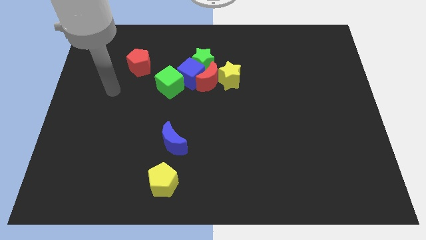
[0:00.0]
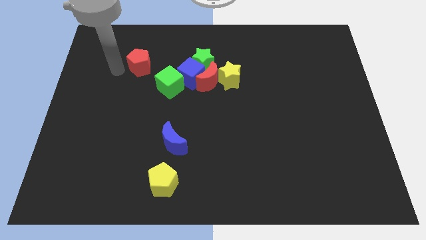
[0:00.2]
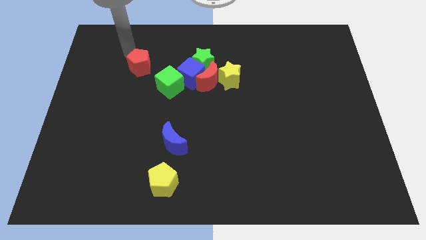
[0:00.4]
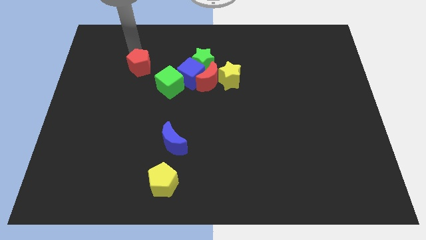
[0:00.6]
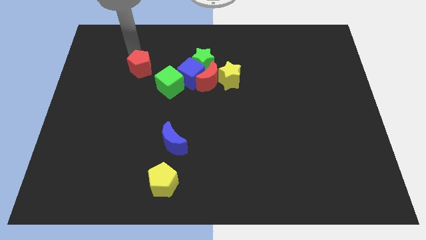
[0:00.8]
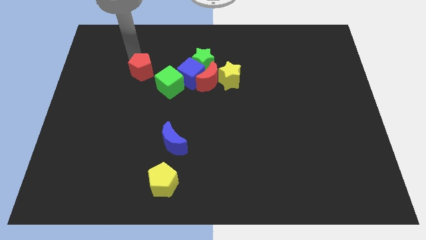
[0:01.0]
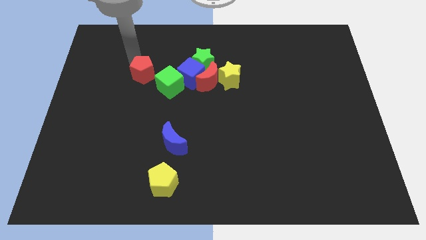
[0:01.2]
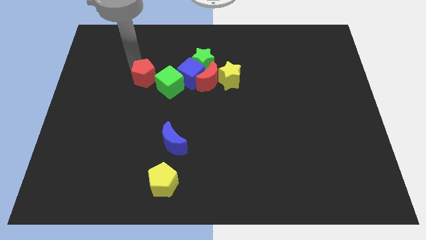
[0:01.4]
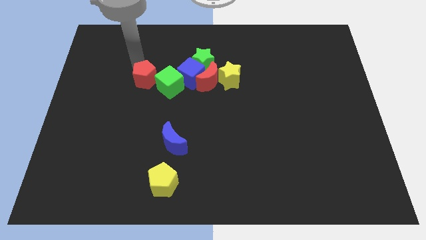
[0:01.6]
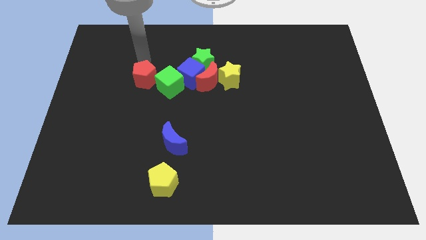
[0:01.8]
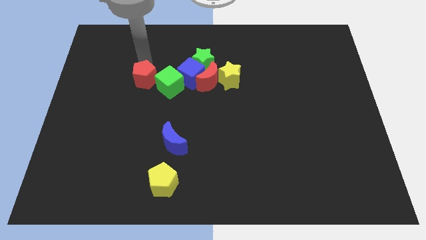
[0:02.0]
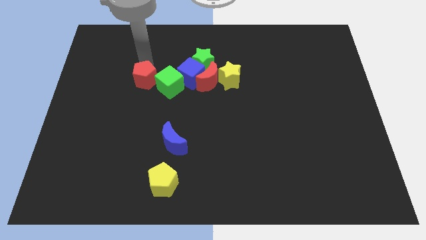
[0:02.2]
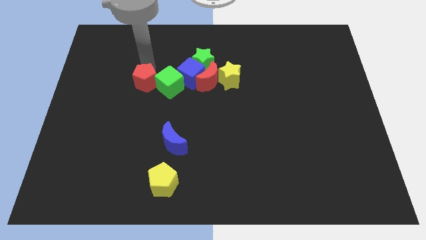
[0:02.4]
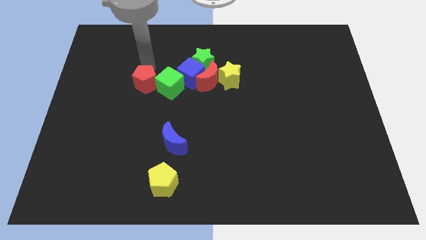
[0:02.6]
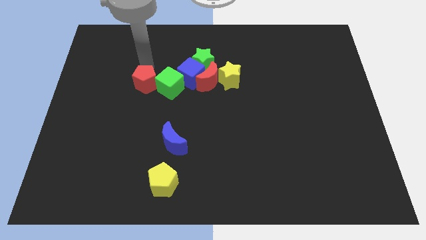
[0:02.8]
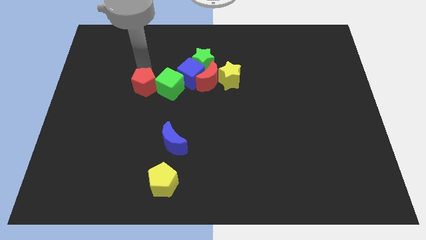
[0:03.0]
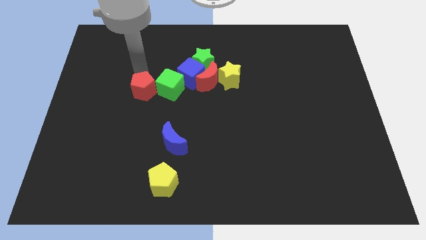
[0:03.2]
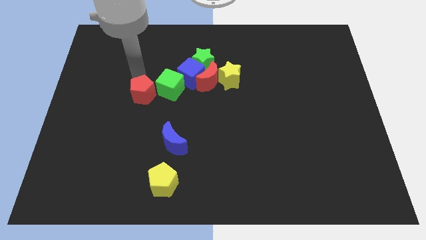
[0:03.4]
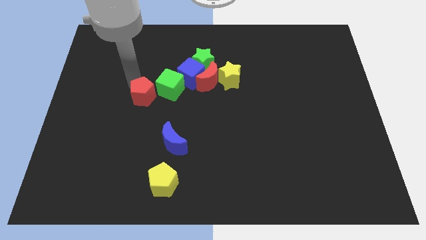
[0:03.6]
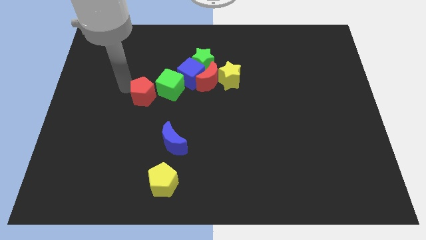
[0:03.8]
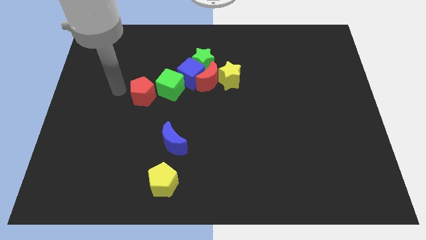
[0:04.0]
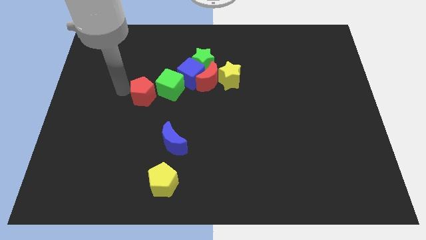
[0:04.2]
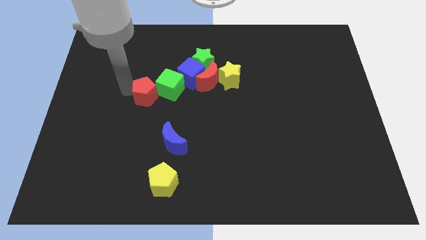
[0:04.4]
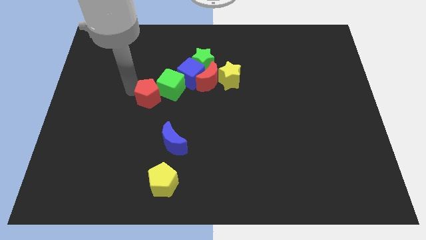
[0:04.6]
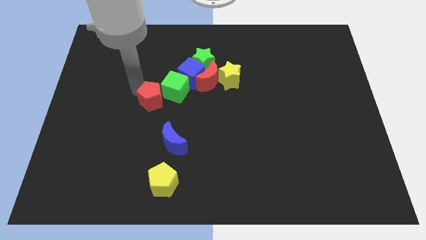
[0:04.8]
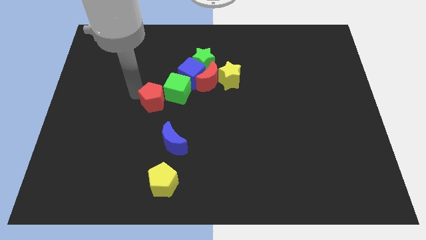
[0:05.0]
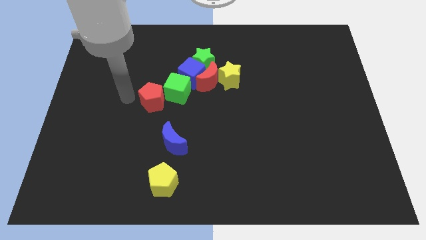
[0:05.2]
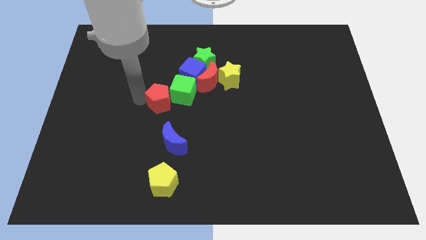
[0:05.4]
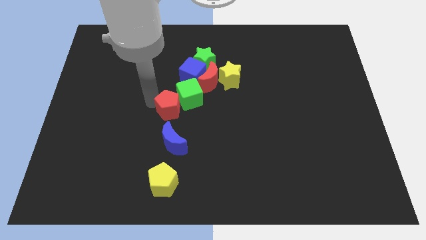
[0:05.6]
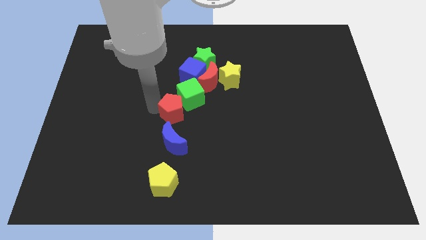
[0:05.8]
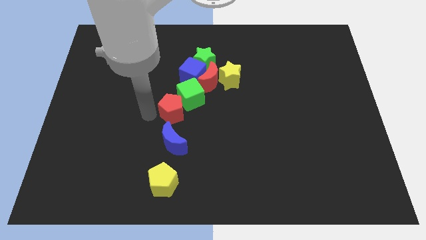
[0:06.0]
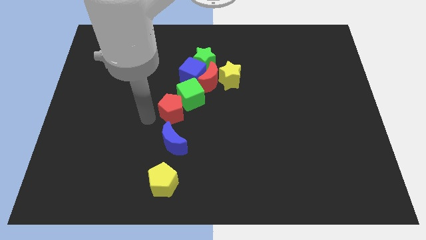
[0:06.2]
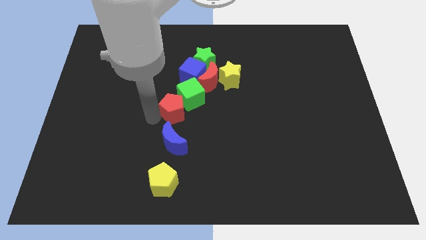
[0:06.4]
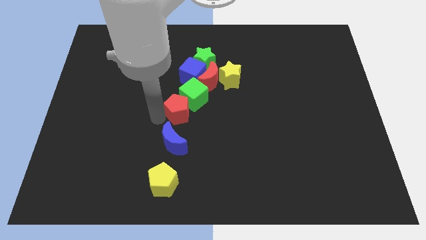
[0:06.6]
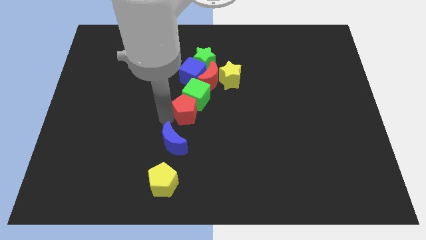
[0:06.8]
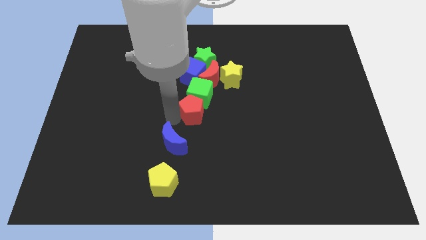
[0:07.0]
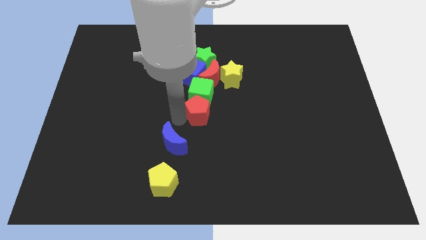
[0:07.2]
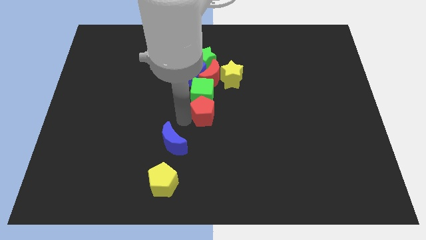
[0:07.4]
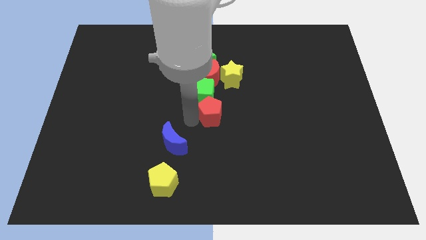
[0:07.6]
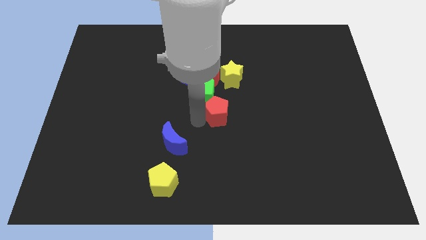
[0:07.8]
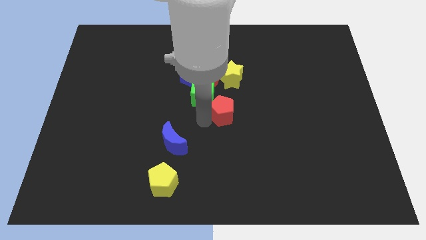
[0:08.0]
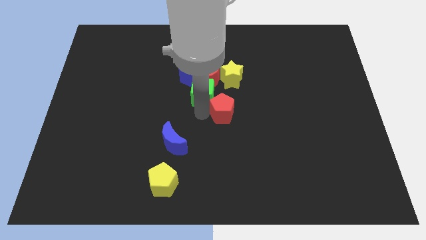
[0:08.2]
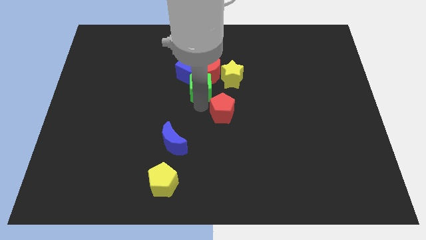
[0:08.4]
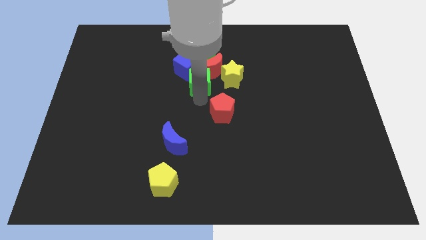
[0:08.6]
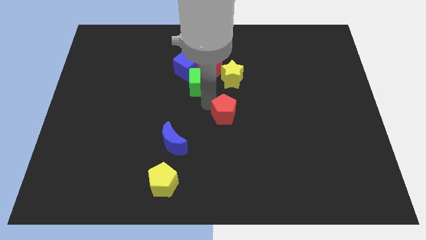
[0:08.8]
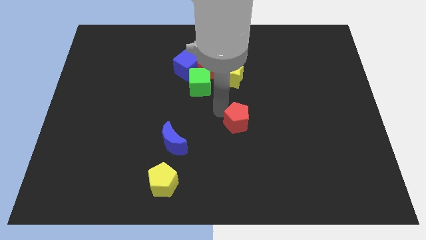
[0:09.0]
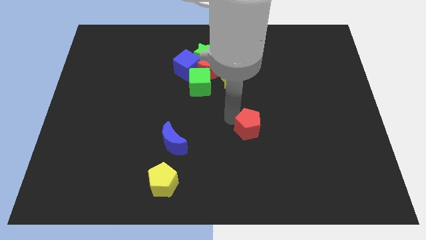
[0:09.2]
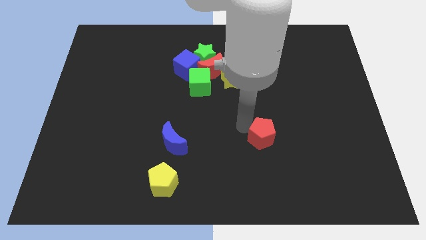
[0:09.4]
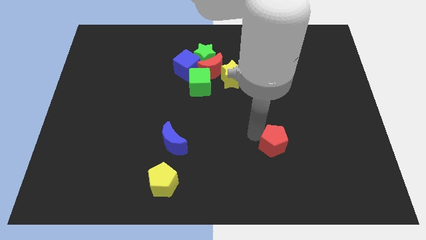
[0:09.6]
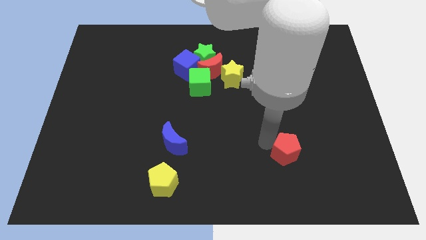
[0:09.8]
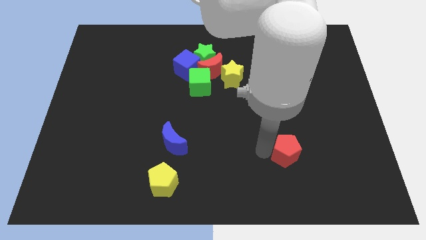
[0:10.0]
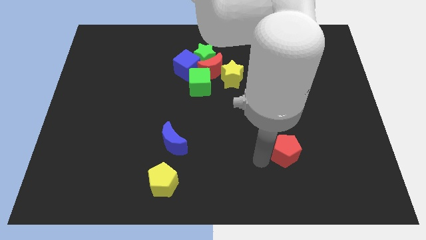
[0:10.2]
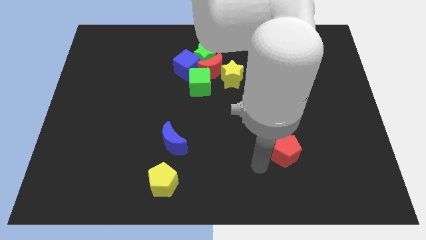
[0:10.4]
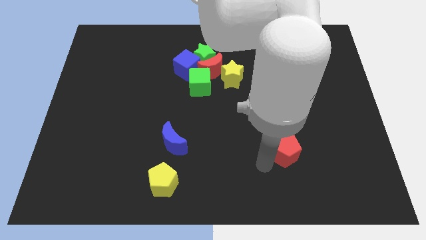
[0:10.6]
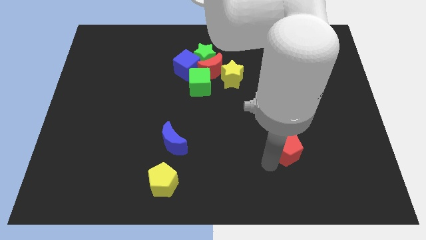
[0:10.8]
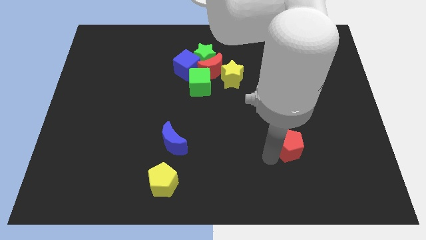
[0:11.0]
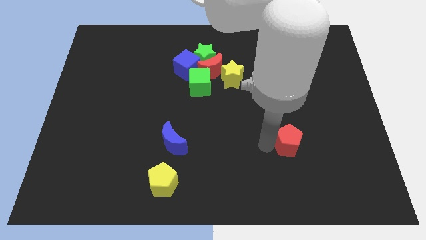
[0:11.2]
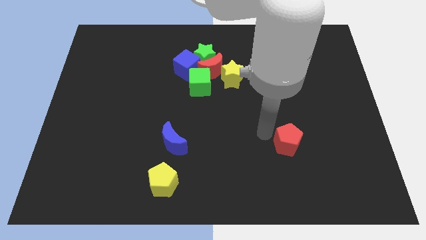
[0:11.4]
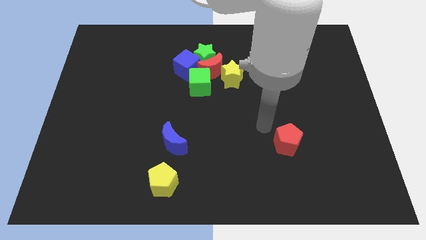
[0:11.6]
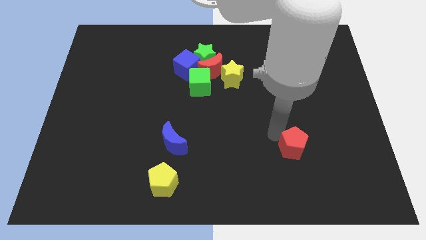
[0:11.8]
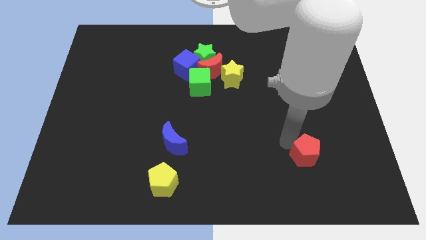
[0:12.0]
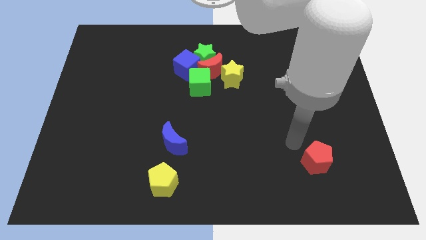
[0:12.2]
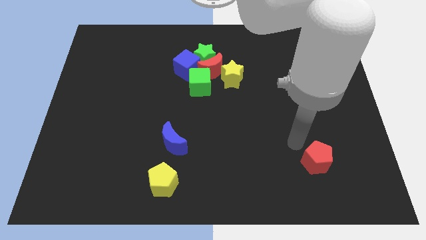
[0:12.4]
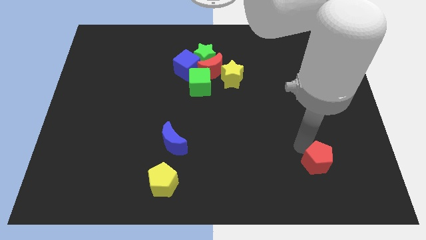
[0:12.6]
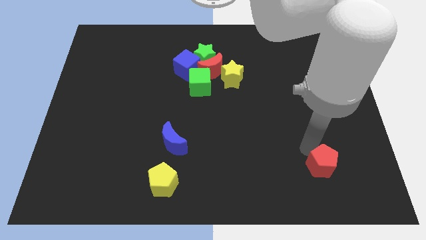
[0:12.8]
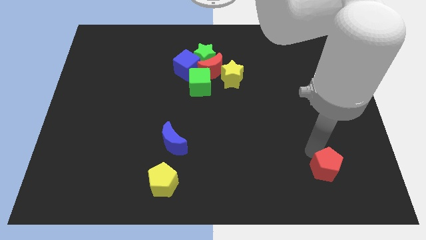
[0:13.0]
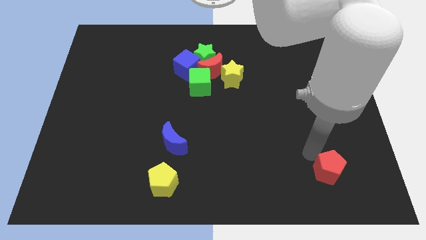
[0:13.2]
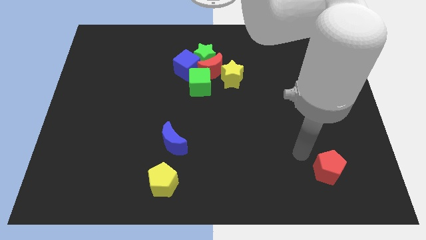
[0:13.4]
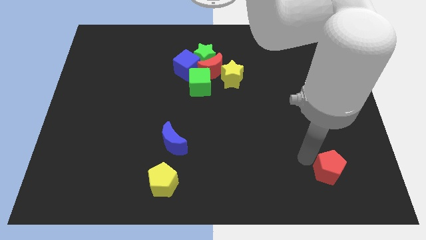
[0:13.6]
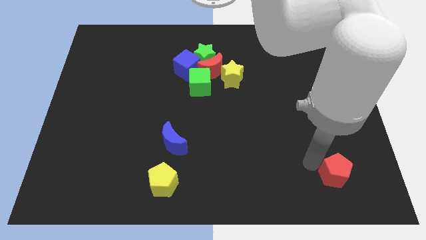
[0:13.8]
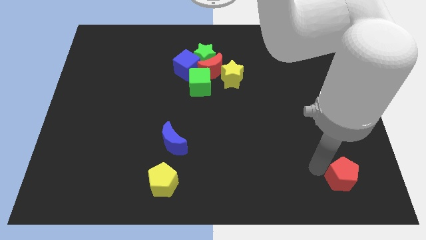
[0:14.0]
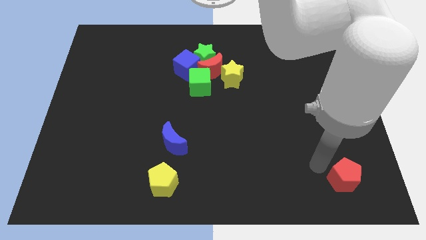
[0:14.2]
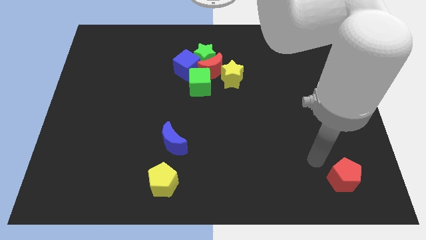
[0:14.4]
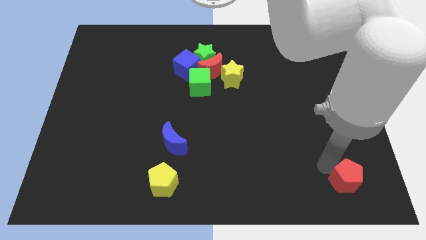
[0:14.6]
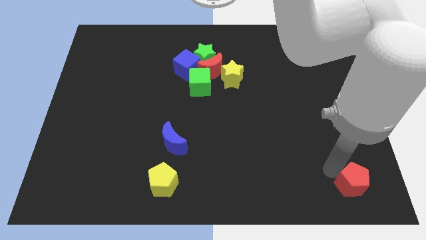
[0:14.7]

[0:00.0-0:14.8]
slide the red pentagon to the bottom right corner
